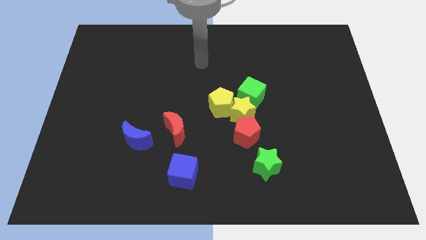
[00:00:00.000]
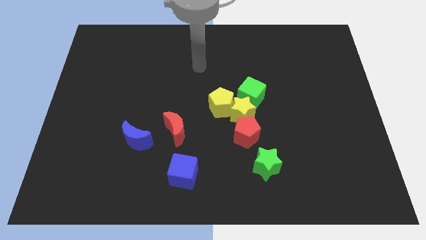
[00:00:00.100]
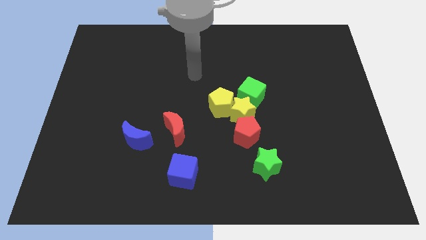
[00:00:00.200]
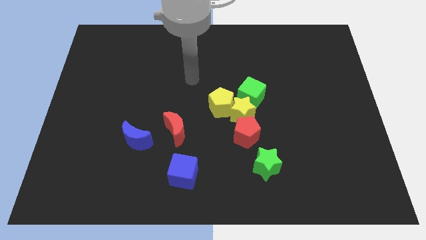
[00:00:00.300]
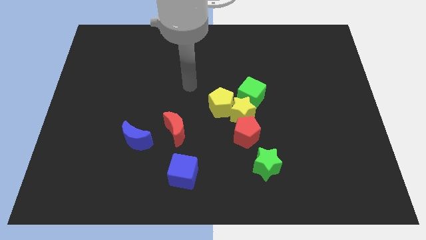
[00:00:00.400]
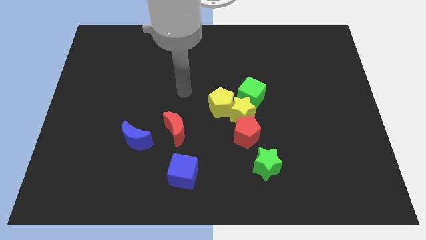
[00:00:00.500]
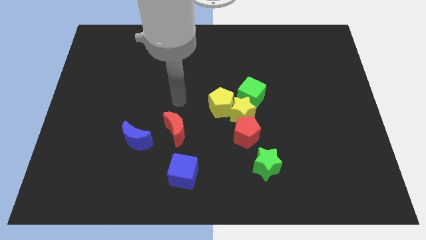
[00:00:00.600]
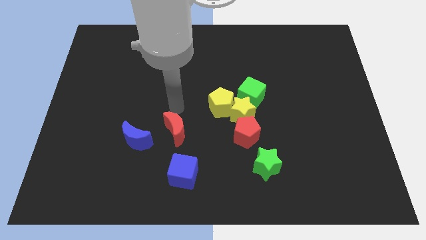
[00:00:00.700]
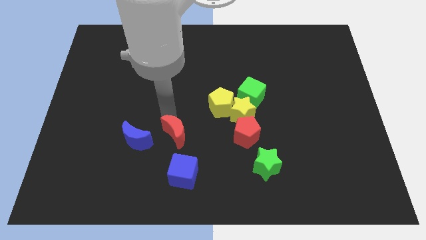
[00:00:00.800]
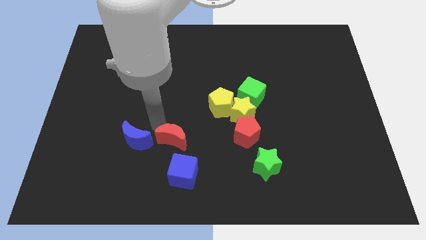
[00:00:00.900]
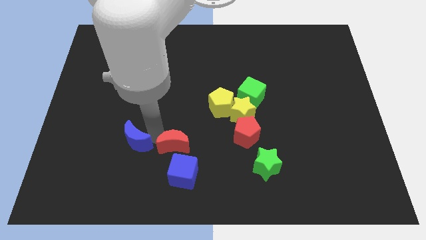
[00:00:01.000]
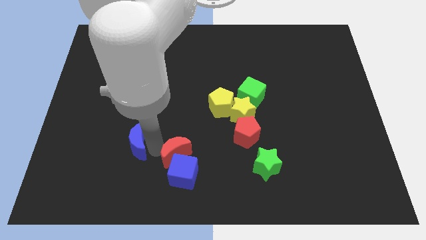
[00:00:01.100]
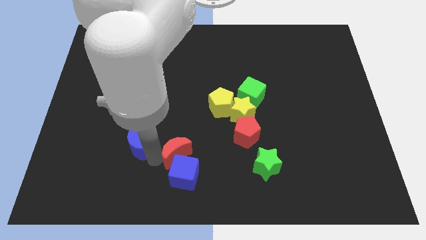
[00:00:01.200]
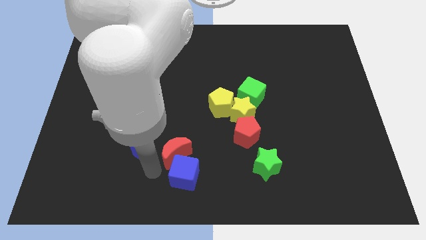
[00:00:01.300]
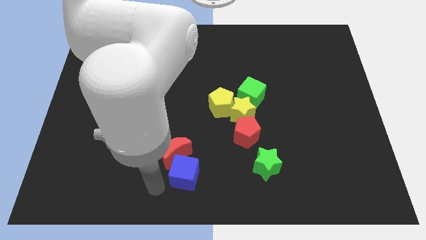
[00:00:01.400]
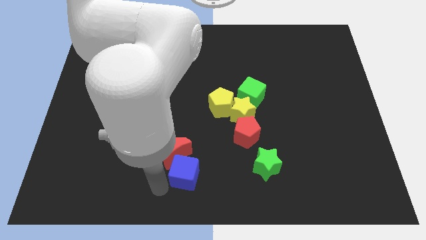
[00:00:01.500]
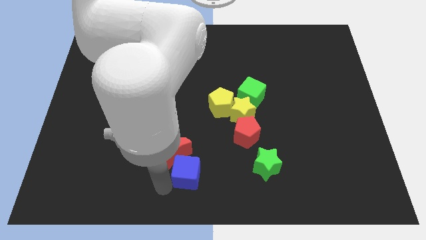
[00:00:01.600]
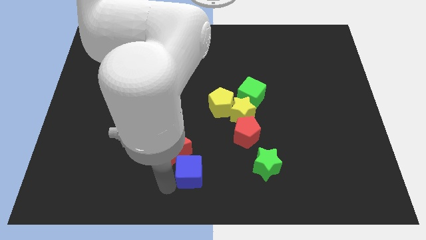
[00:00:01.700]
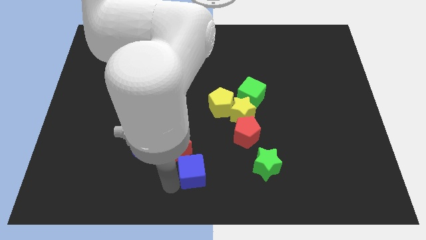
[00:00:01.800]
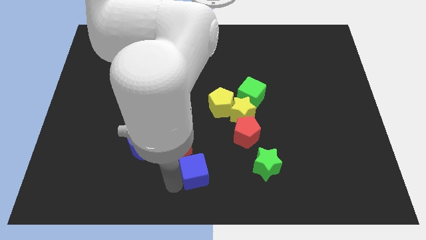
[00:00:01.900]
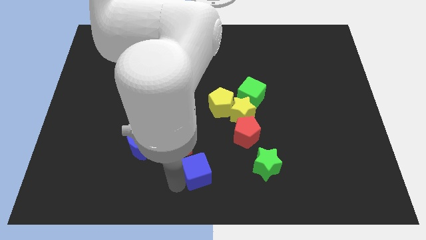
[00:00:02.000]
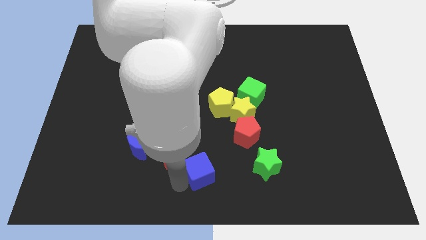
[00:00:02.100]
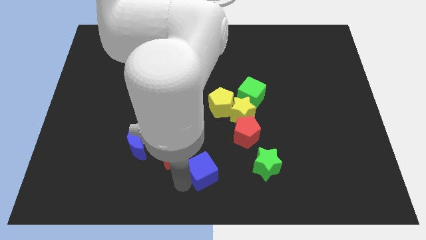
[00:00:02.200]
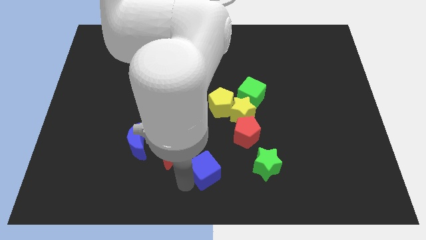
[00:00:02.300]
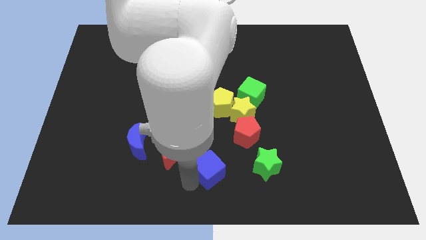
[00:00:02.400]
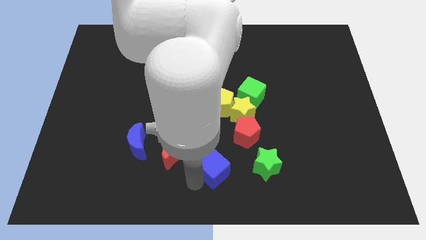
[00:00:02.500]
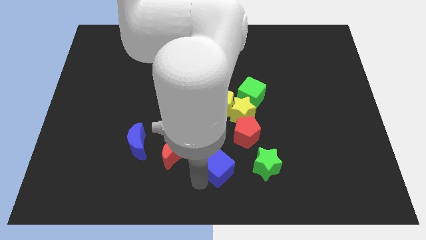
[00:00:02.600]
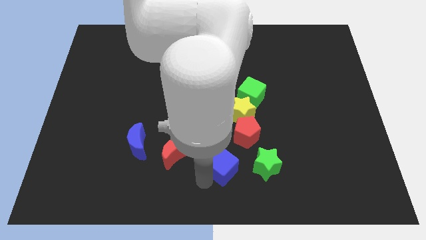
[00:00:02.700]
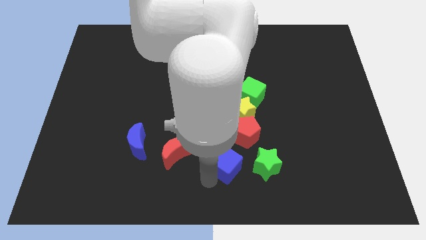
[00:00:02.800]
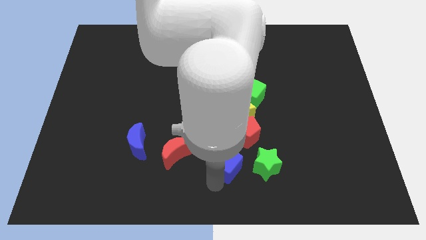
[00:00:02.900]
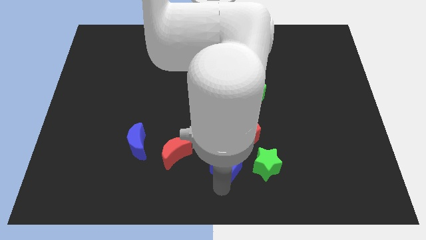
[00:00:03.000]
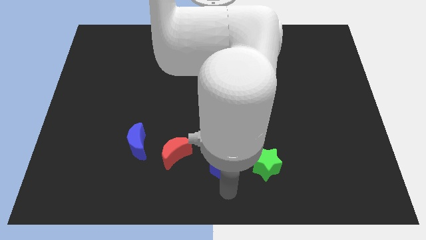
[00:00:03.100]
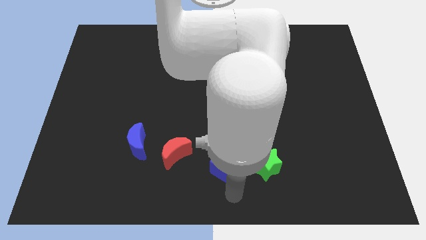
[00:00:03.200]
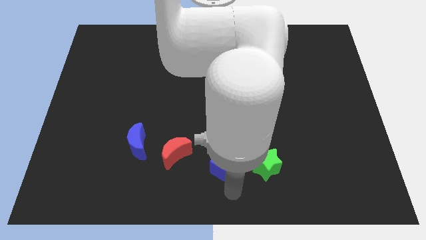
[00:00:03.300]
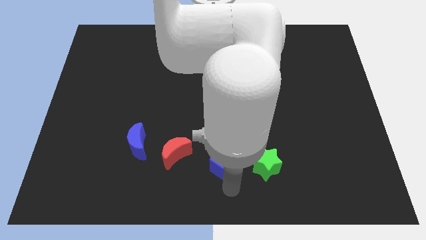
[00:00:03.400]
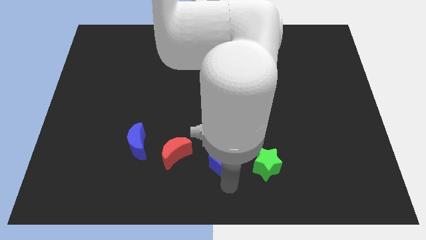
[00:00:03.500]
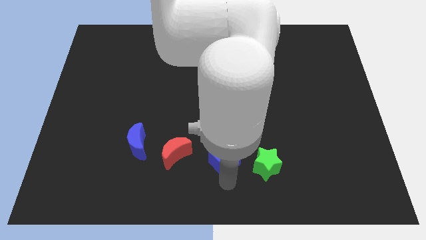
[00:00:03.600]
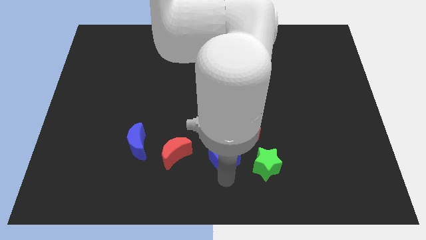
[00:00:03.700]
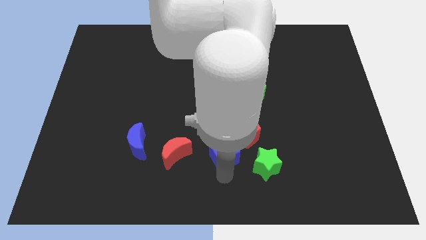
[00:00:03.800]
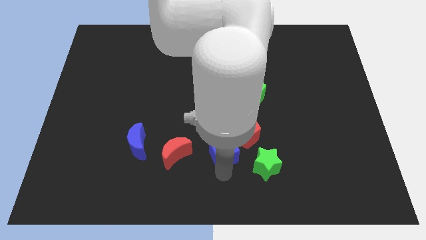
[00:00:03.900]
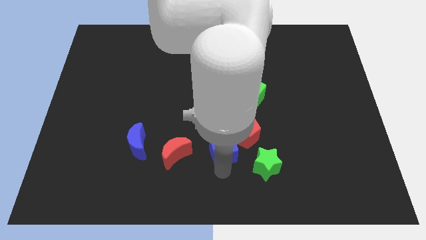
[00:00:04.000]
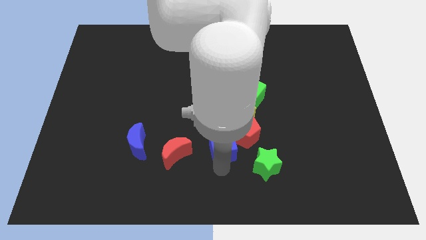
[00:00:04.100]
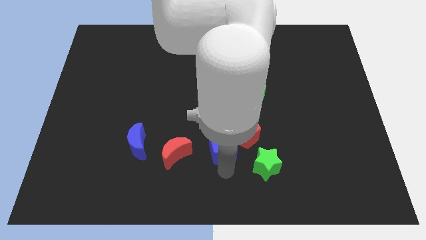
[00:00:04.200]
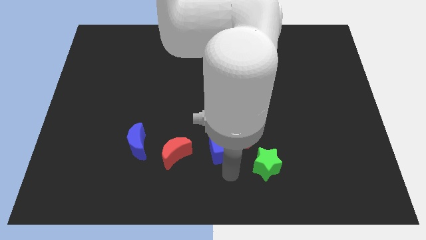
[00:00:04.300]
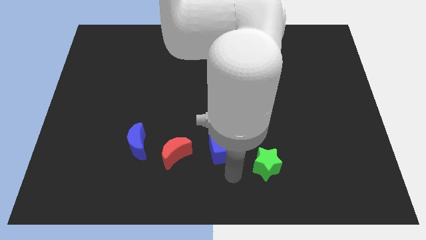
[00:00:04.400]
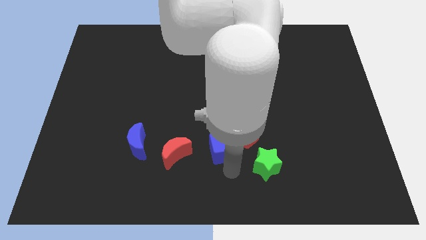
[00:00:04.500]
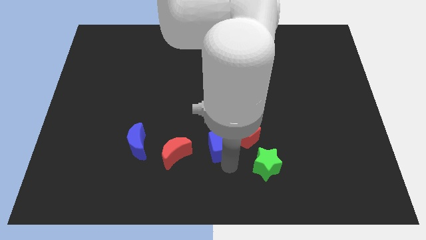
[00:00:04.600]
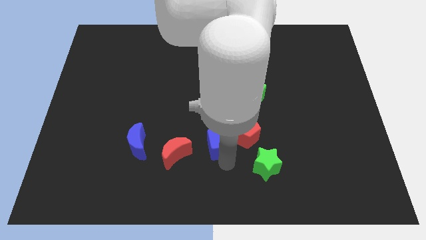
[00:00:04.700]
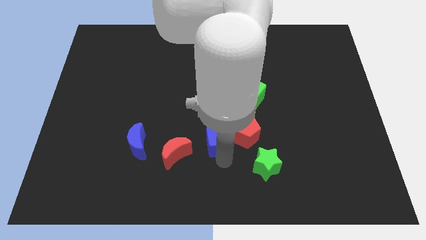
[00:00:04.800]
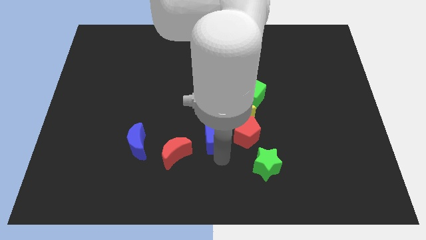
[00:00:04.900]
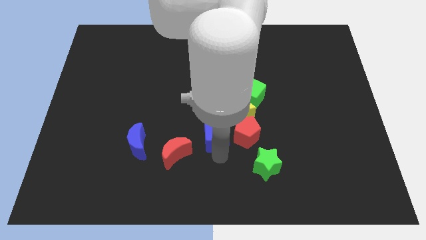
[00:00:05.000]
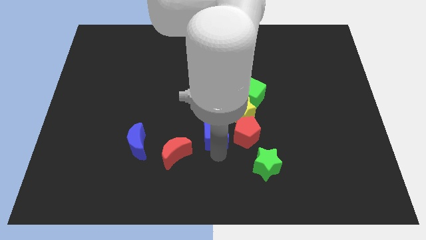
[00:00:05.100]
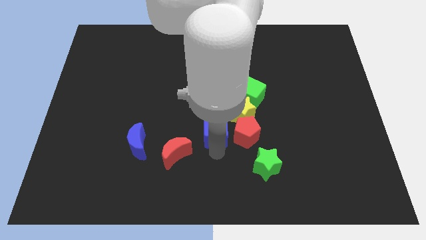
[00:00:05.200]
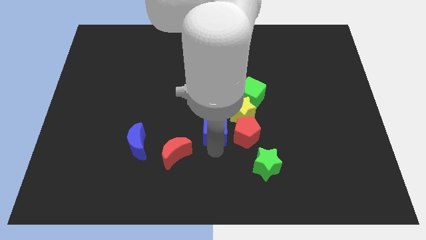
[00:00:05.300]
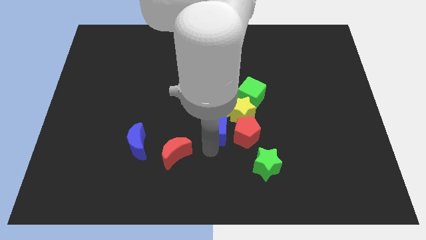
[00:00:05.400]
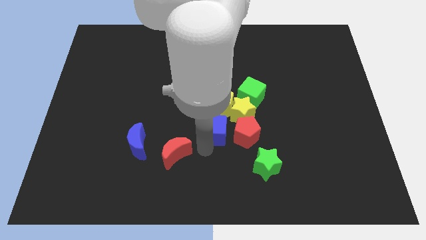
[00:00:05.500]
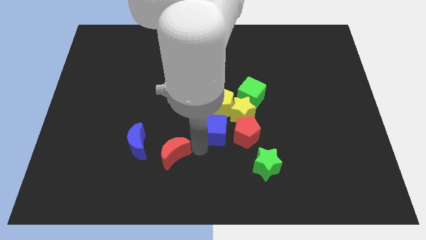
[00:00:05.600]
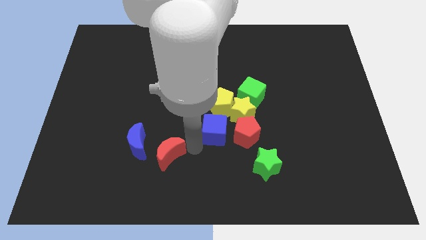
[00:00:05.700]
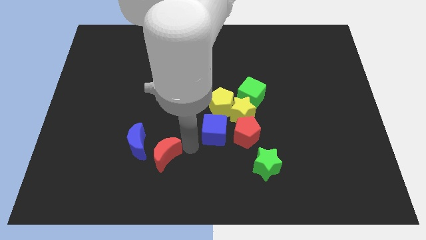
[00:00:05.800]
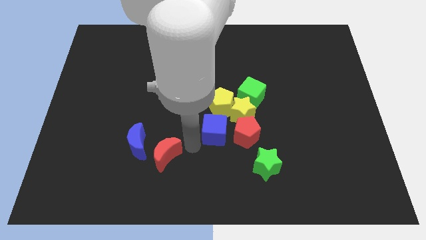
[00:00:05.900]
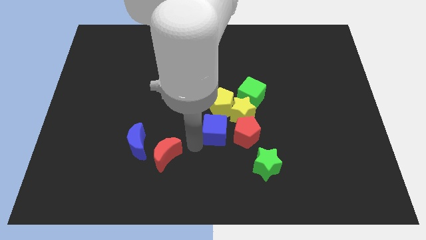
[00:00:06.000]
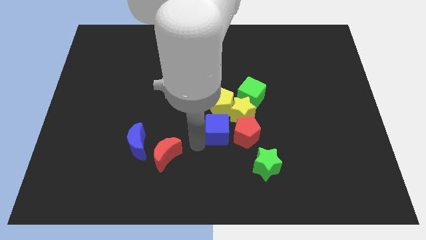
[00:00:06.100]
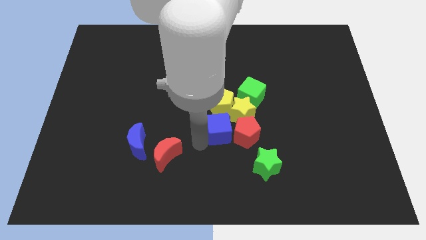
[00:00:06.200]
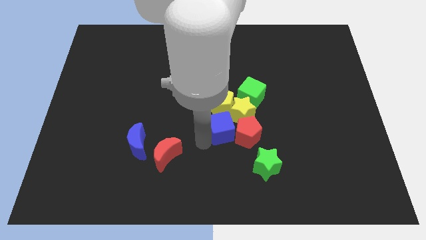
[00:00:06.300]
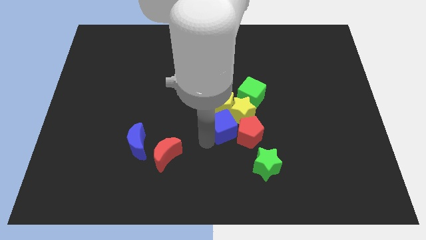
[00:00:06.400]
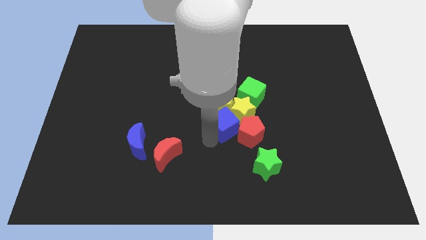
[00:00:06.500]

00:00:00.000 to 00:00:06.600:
move the blue cube close to the yellow star

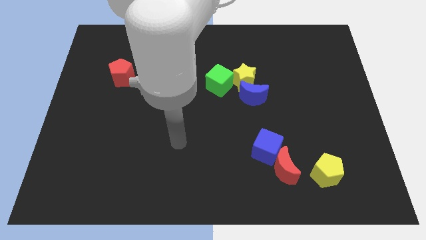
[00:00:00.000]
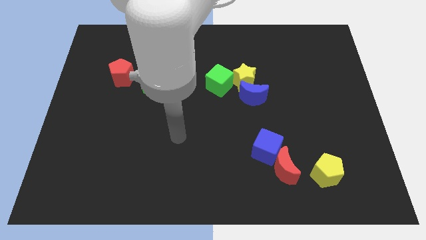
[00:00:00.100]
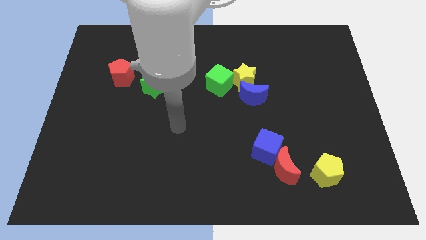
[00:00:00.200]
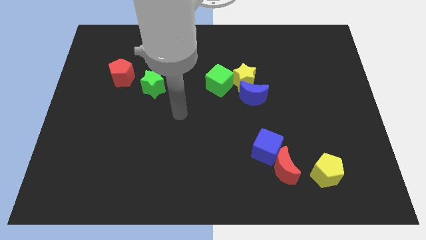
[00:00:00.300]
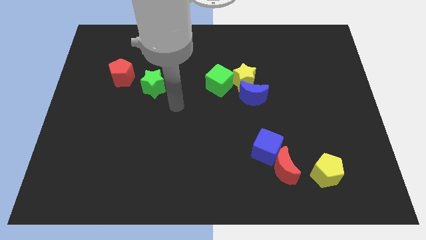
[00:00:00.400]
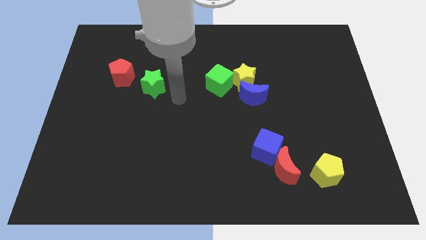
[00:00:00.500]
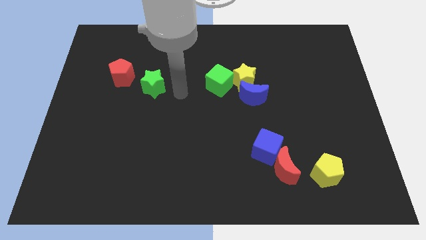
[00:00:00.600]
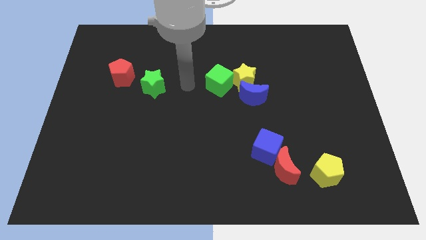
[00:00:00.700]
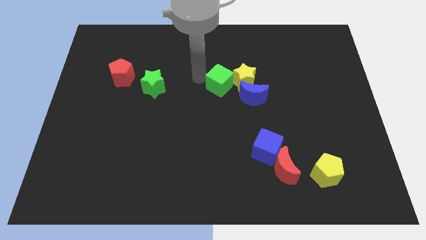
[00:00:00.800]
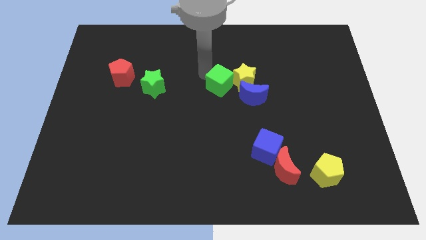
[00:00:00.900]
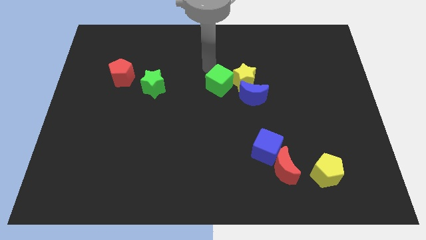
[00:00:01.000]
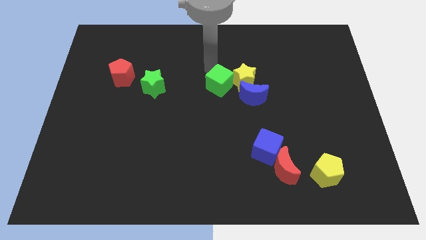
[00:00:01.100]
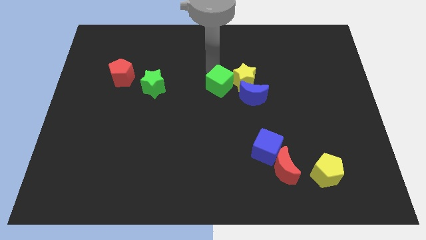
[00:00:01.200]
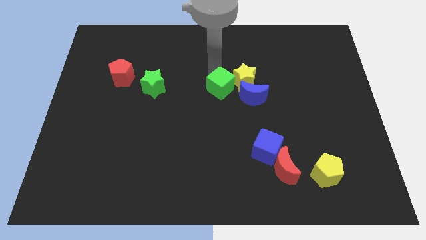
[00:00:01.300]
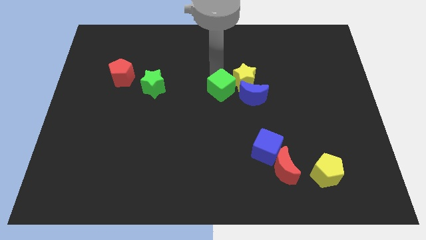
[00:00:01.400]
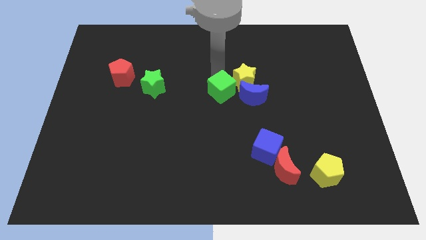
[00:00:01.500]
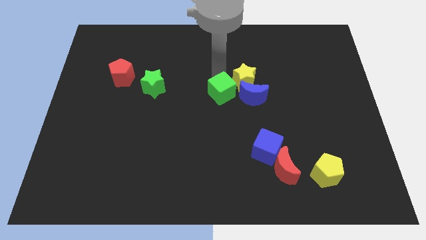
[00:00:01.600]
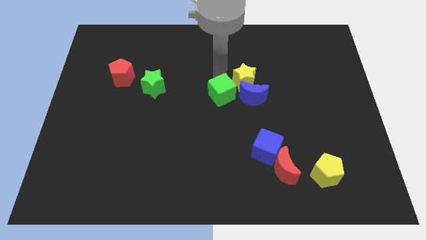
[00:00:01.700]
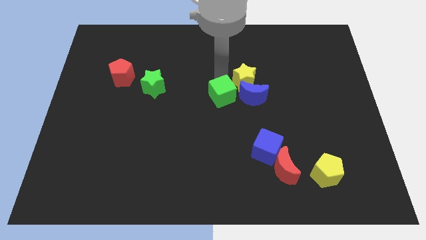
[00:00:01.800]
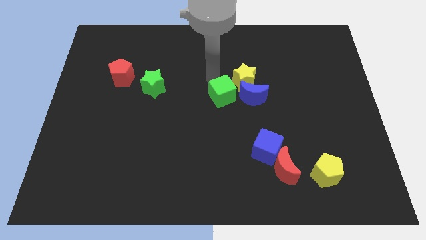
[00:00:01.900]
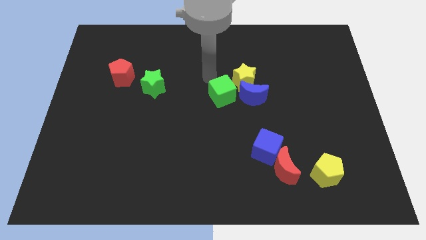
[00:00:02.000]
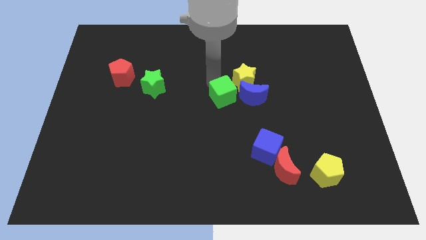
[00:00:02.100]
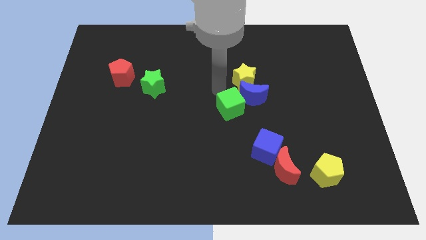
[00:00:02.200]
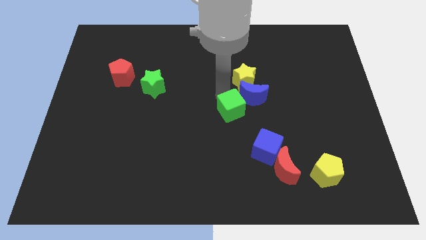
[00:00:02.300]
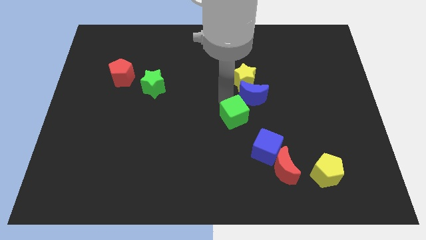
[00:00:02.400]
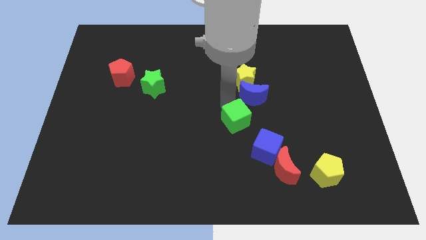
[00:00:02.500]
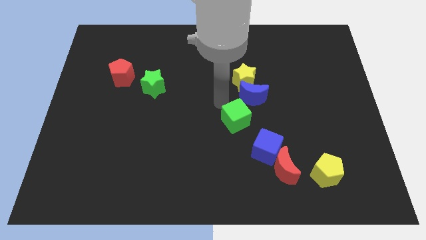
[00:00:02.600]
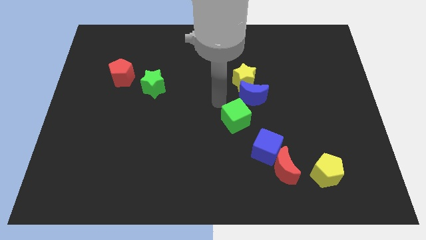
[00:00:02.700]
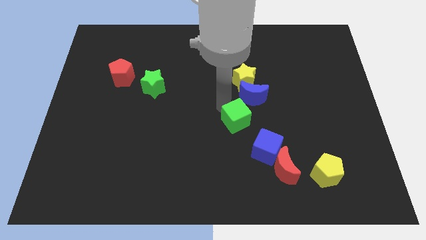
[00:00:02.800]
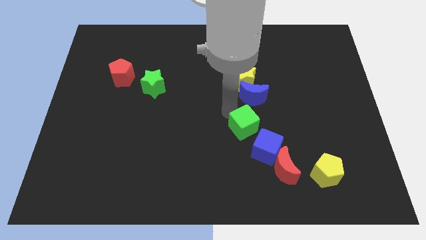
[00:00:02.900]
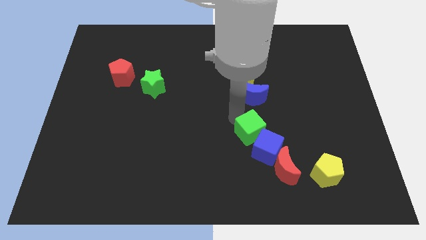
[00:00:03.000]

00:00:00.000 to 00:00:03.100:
push the green cube towards the blue cube
